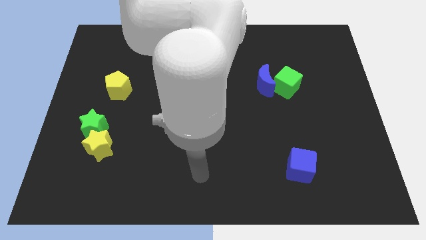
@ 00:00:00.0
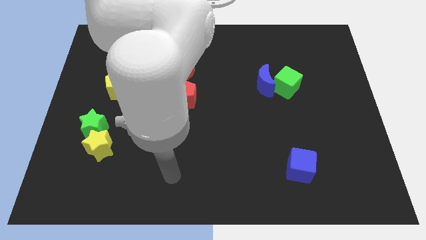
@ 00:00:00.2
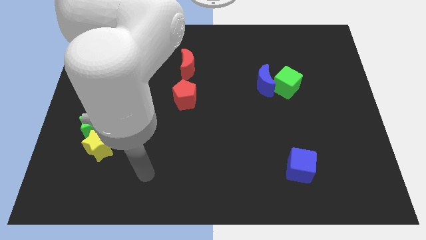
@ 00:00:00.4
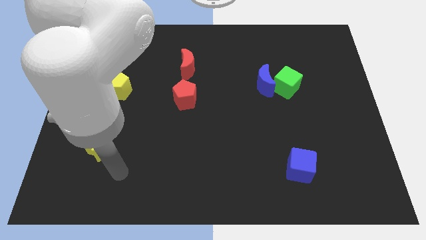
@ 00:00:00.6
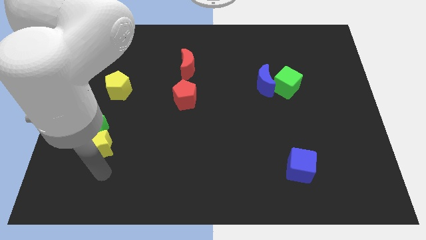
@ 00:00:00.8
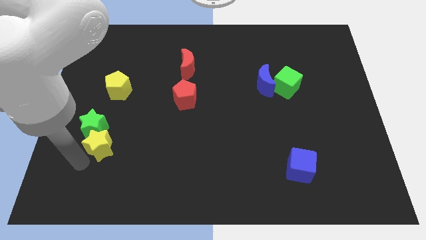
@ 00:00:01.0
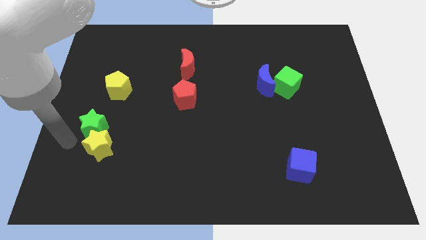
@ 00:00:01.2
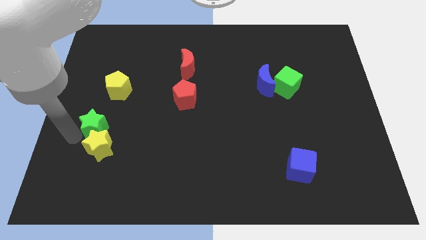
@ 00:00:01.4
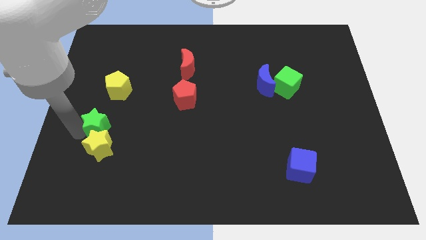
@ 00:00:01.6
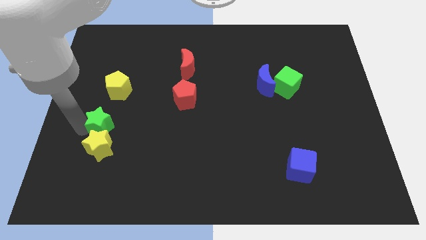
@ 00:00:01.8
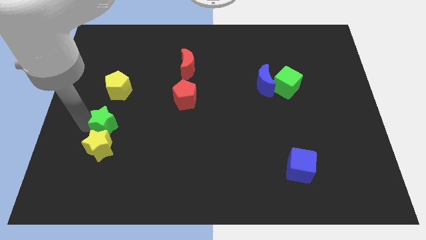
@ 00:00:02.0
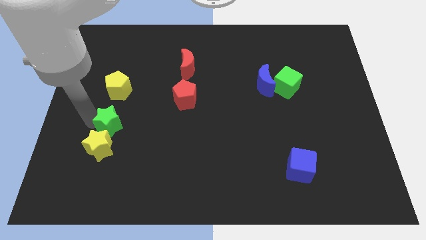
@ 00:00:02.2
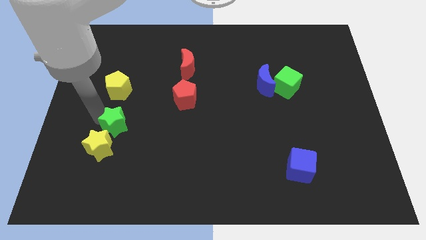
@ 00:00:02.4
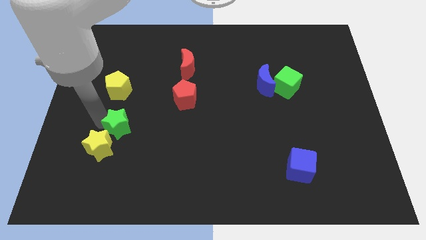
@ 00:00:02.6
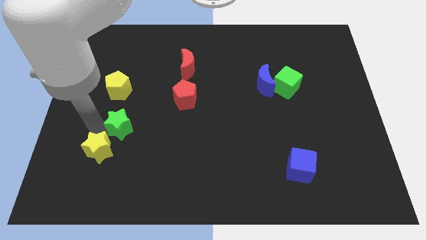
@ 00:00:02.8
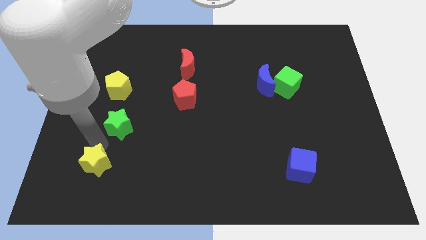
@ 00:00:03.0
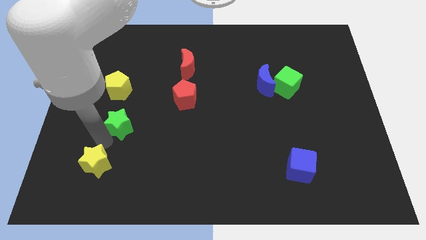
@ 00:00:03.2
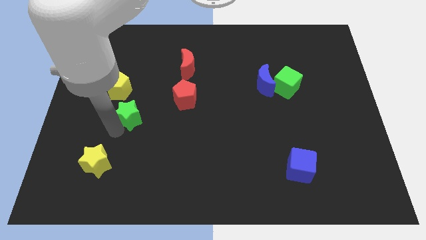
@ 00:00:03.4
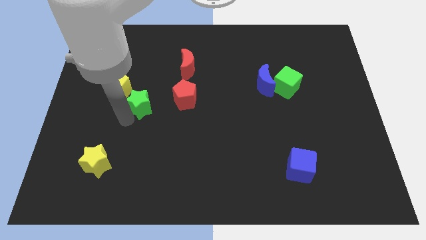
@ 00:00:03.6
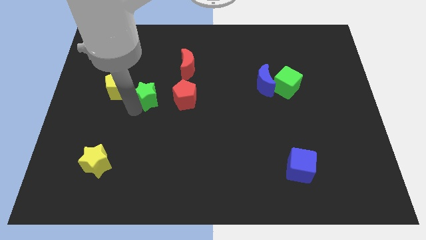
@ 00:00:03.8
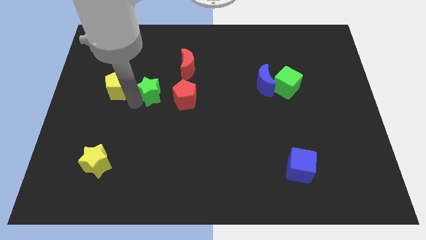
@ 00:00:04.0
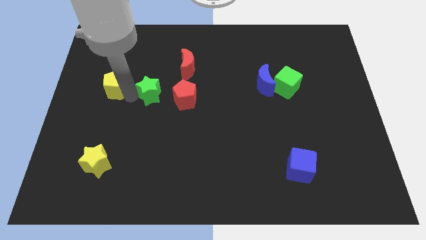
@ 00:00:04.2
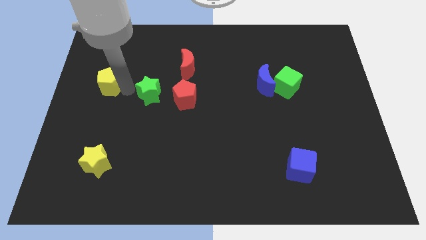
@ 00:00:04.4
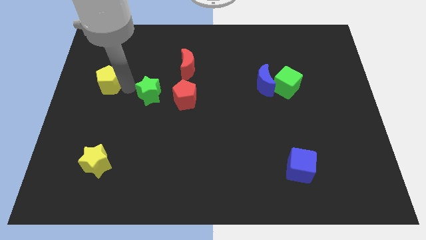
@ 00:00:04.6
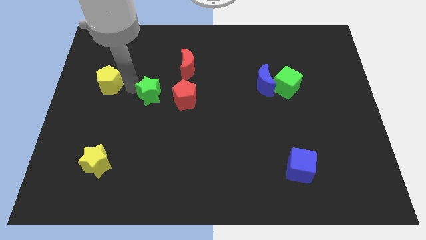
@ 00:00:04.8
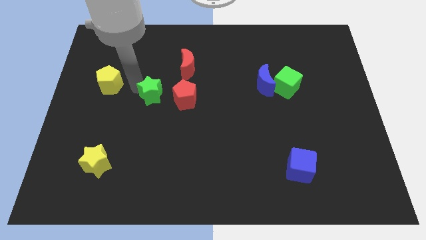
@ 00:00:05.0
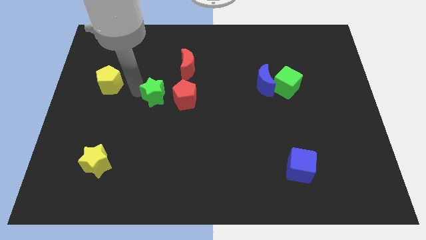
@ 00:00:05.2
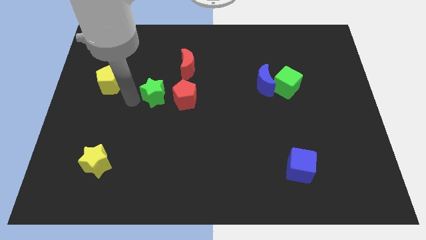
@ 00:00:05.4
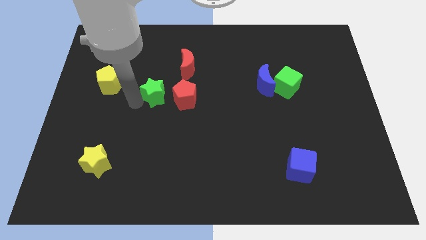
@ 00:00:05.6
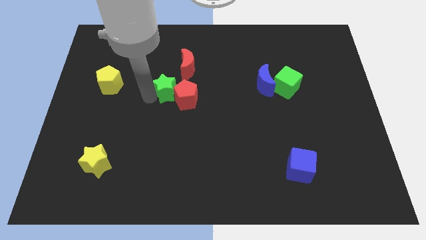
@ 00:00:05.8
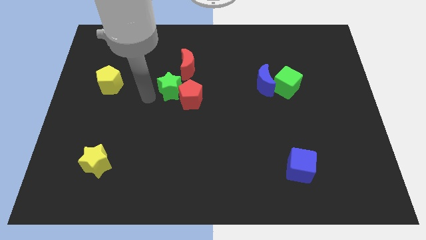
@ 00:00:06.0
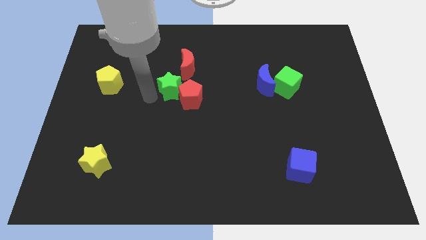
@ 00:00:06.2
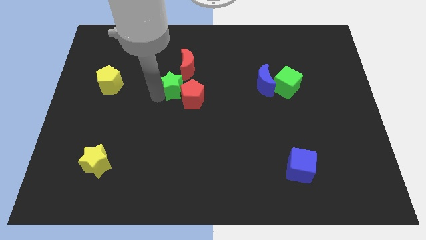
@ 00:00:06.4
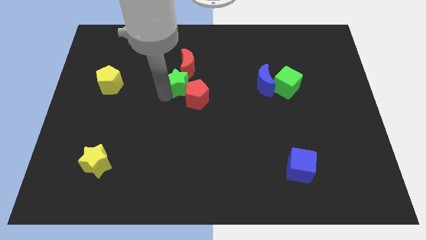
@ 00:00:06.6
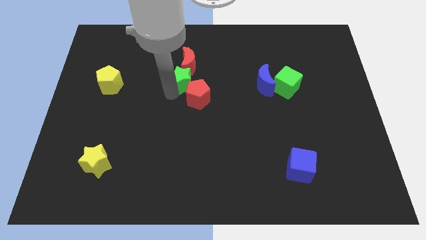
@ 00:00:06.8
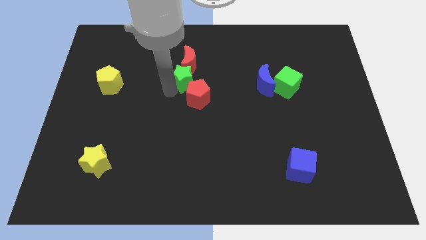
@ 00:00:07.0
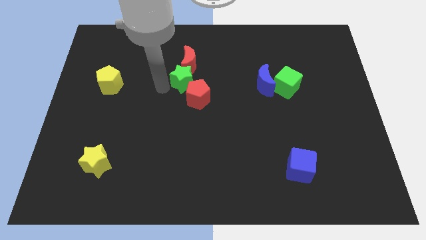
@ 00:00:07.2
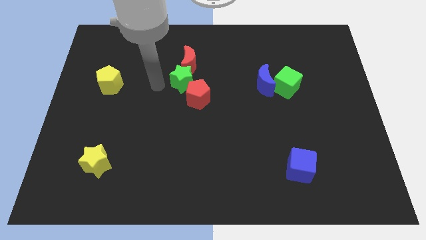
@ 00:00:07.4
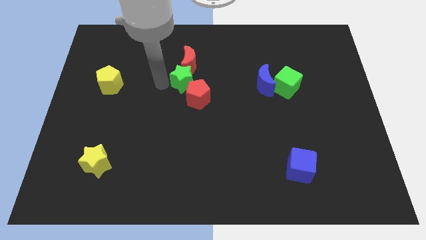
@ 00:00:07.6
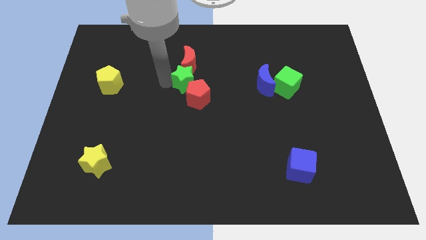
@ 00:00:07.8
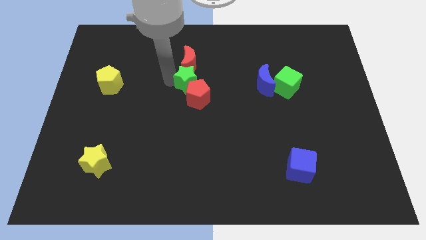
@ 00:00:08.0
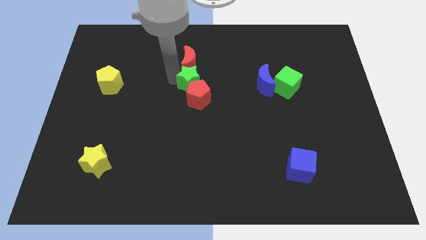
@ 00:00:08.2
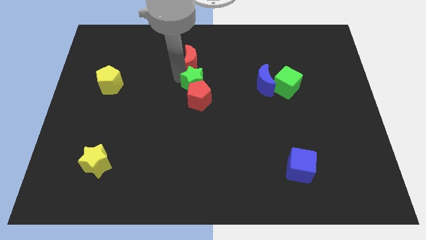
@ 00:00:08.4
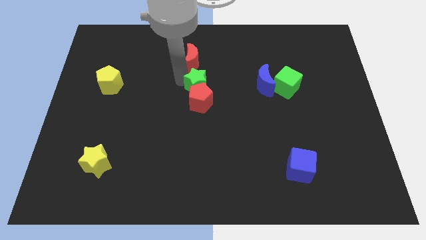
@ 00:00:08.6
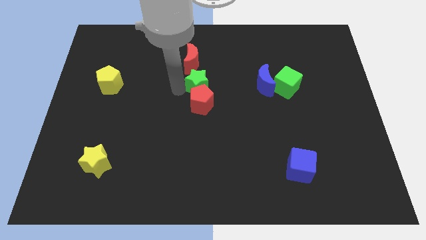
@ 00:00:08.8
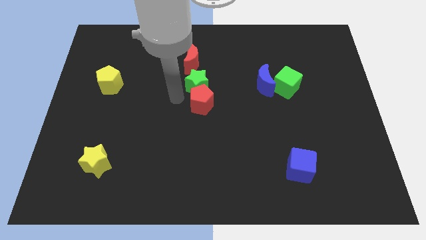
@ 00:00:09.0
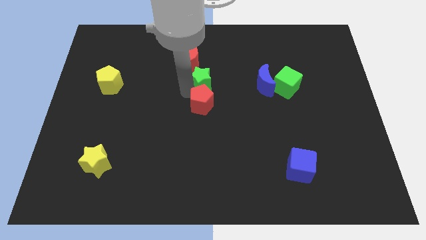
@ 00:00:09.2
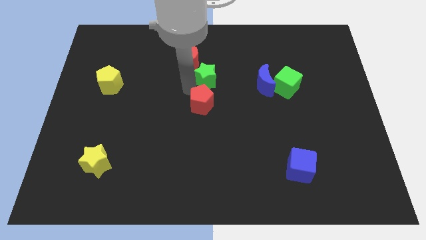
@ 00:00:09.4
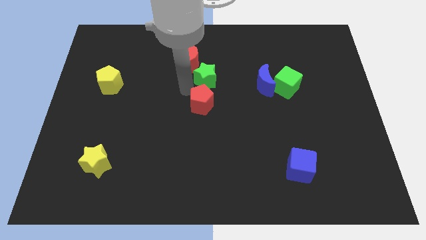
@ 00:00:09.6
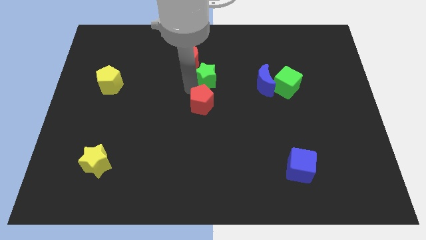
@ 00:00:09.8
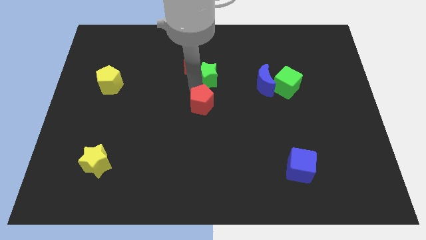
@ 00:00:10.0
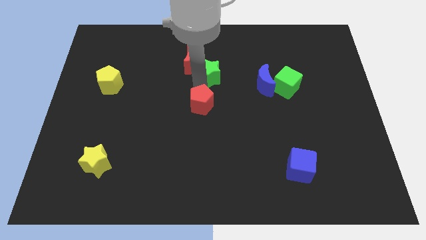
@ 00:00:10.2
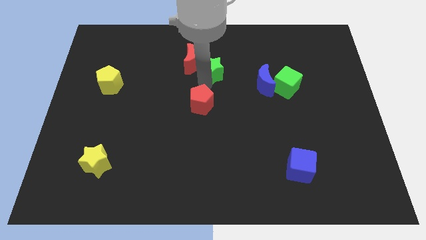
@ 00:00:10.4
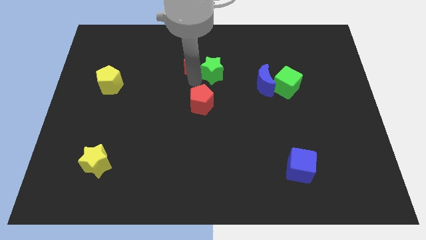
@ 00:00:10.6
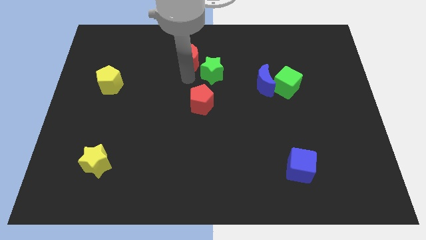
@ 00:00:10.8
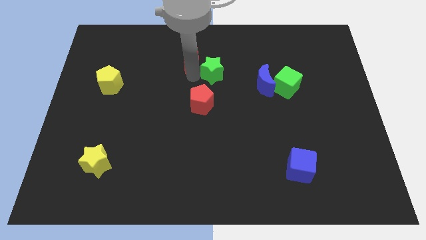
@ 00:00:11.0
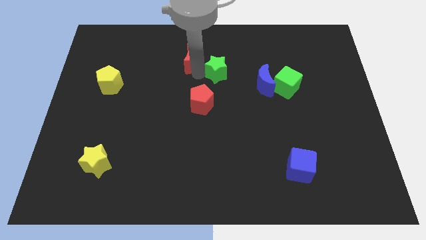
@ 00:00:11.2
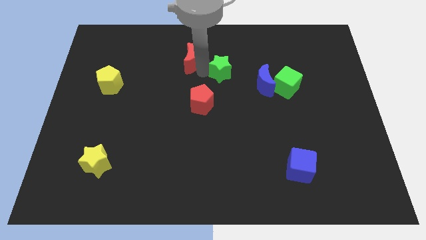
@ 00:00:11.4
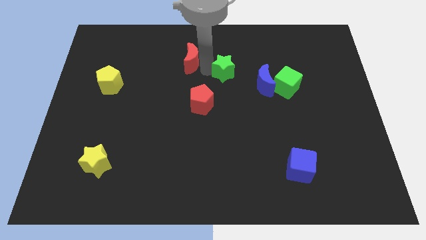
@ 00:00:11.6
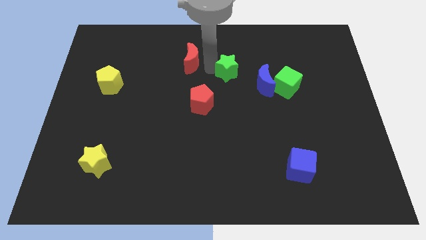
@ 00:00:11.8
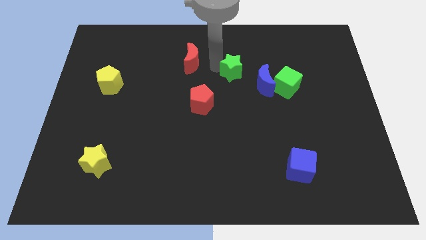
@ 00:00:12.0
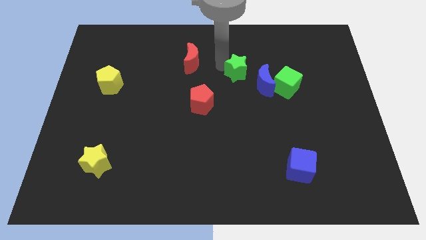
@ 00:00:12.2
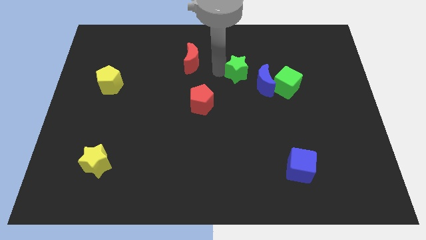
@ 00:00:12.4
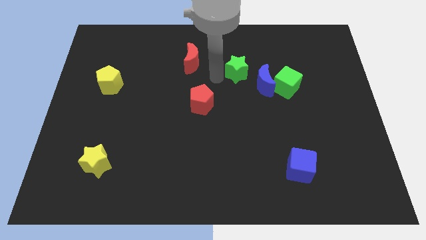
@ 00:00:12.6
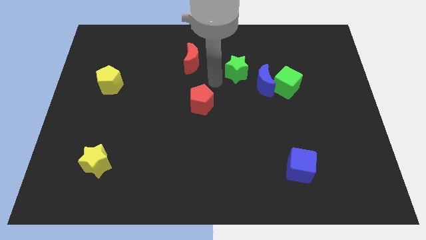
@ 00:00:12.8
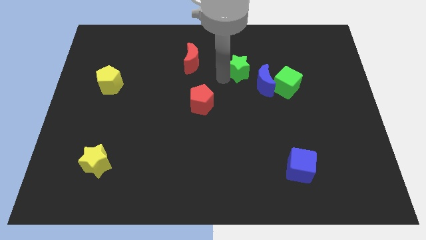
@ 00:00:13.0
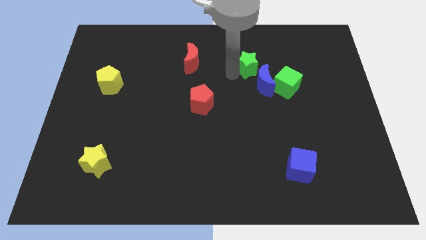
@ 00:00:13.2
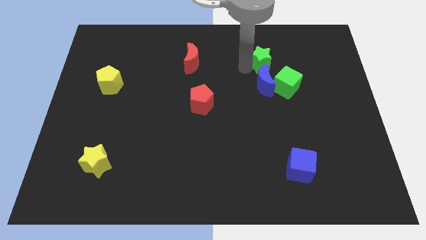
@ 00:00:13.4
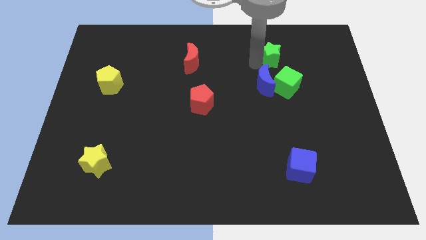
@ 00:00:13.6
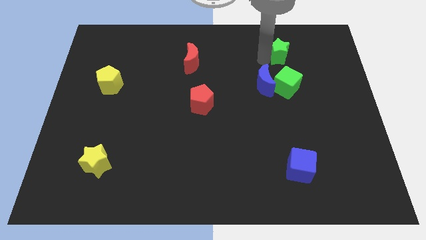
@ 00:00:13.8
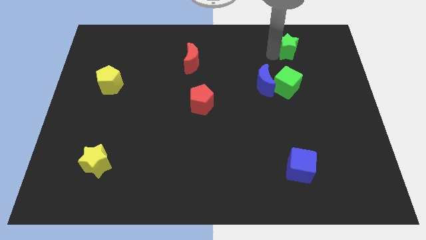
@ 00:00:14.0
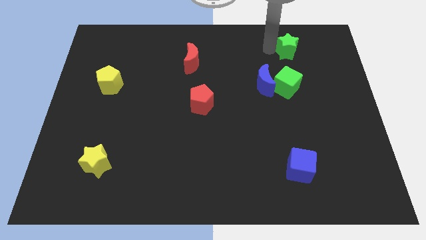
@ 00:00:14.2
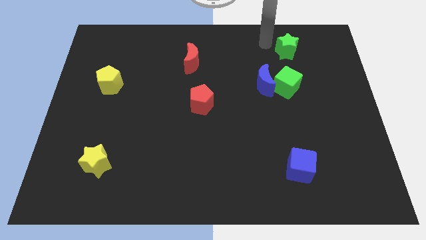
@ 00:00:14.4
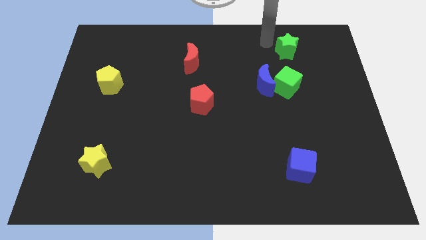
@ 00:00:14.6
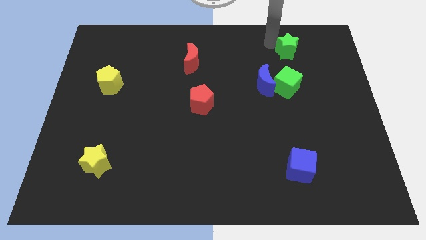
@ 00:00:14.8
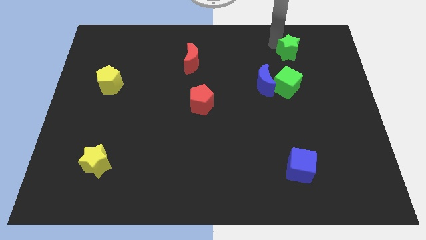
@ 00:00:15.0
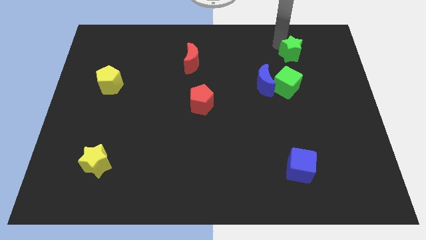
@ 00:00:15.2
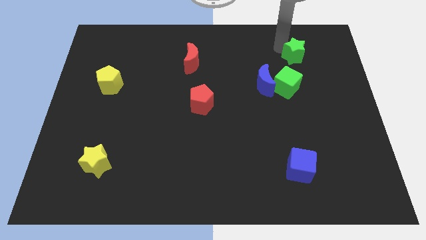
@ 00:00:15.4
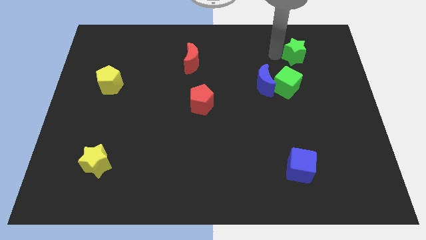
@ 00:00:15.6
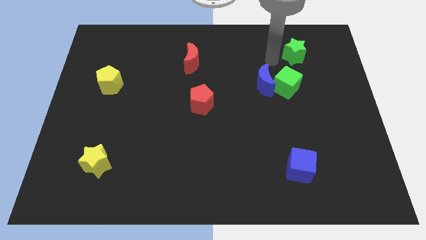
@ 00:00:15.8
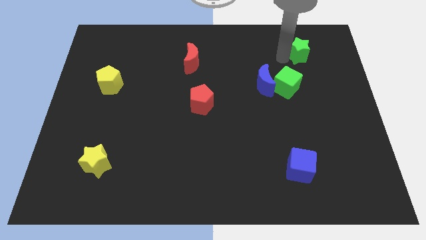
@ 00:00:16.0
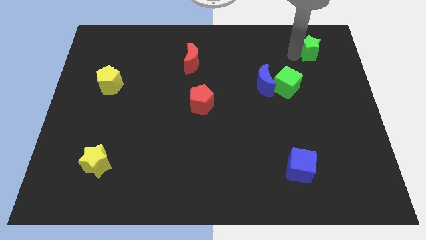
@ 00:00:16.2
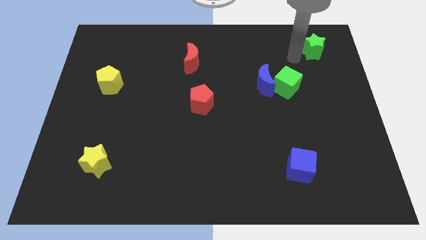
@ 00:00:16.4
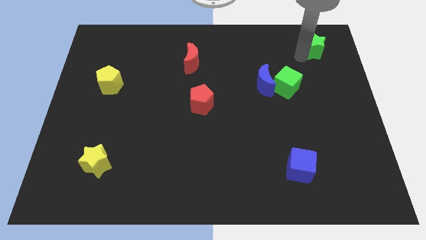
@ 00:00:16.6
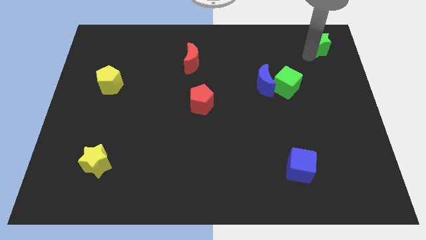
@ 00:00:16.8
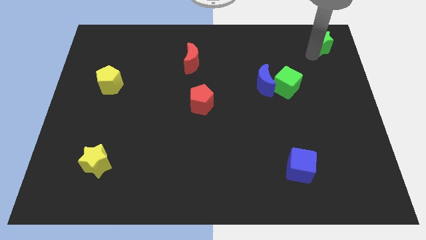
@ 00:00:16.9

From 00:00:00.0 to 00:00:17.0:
slide the green star to the upper right corner
